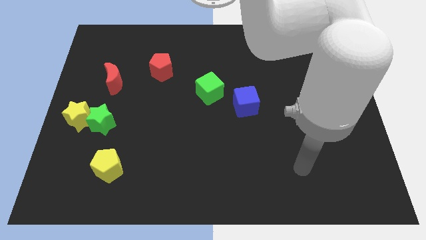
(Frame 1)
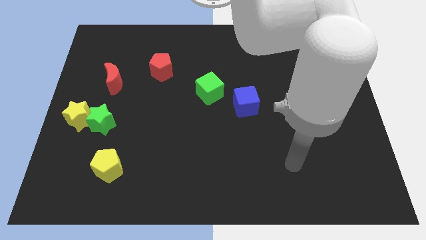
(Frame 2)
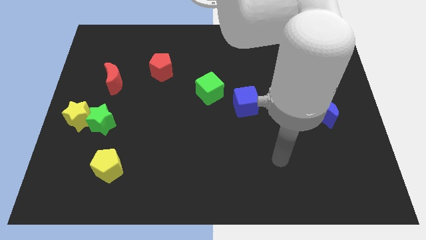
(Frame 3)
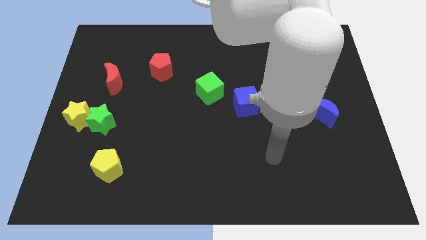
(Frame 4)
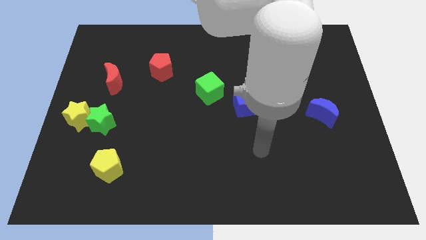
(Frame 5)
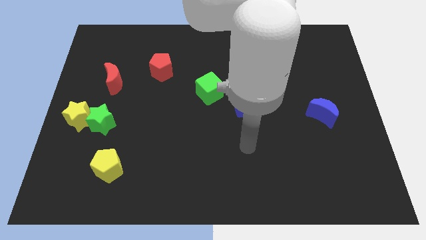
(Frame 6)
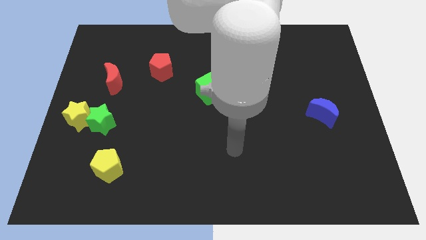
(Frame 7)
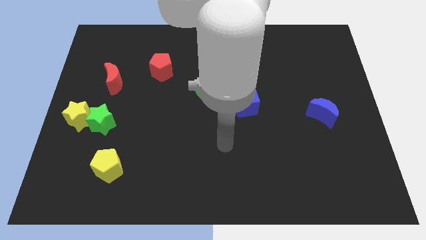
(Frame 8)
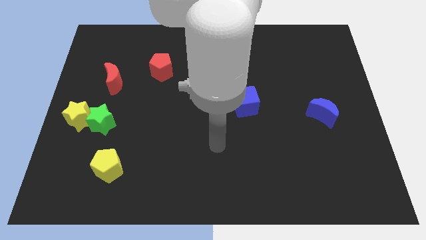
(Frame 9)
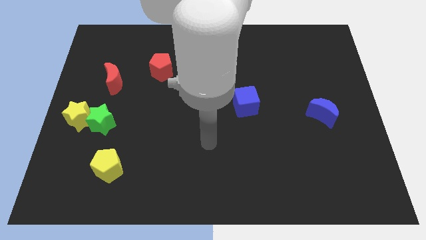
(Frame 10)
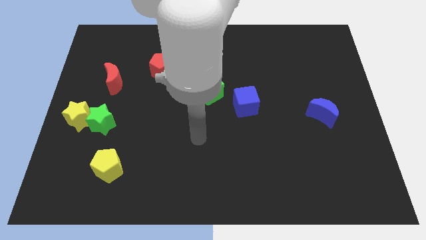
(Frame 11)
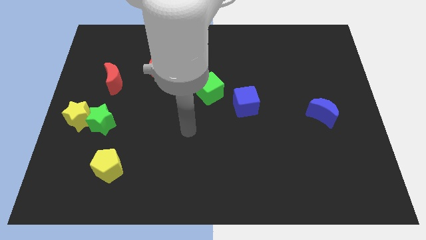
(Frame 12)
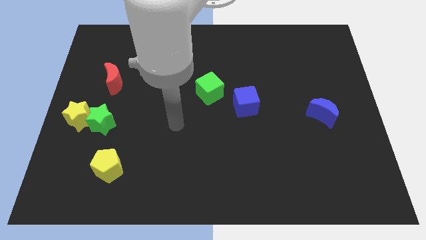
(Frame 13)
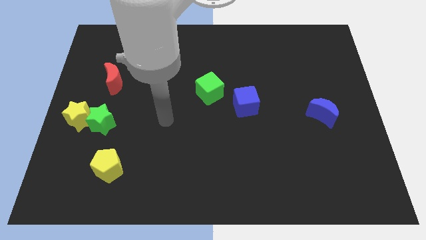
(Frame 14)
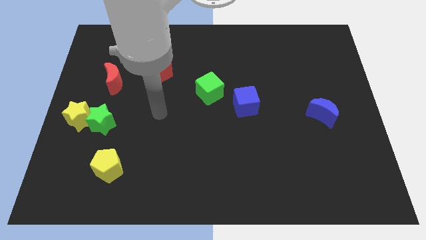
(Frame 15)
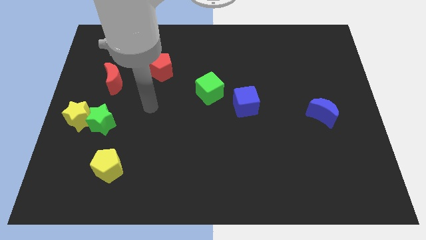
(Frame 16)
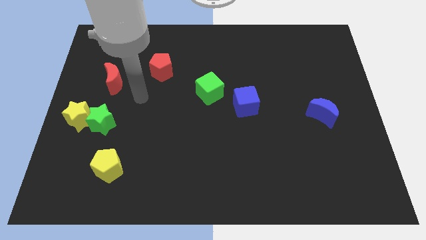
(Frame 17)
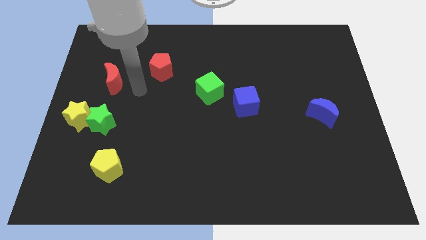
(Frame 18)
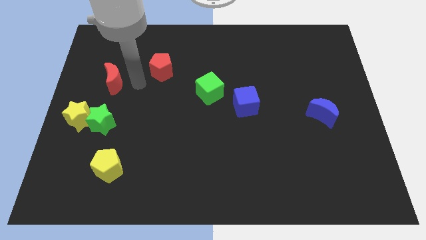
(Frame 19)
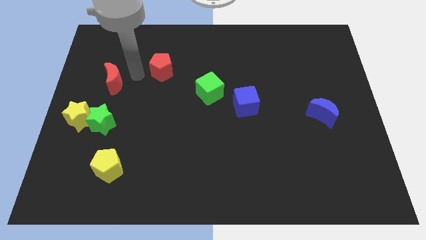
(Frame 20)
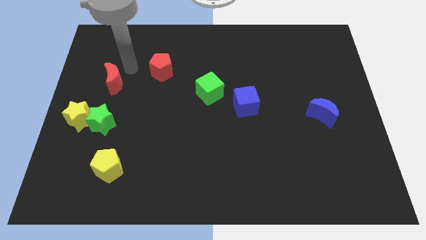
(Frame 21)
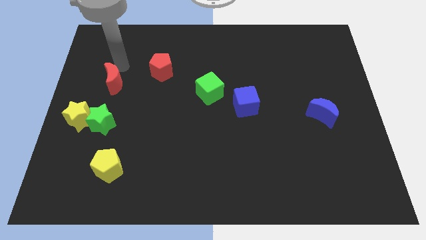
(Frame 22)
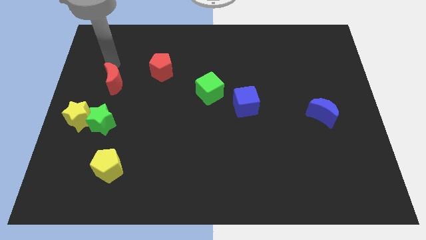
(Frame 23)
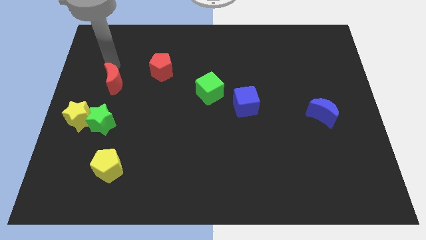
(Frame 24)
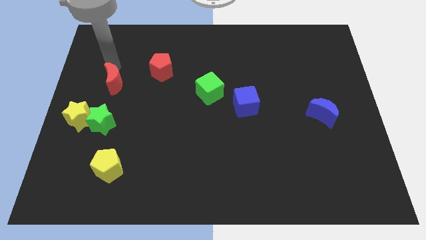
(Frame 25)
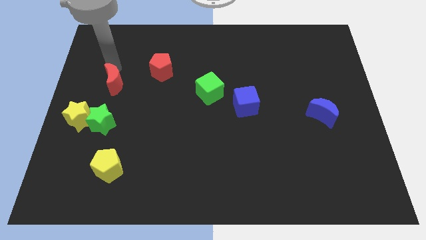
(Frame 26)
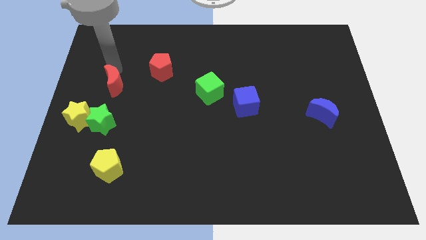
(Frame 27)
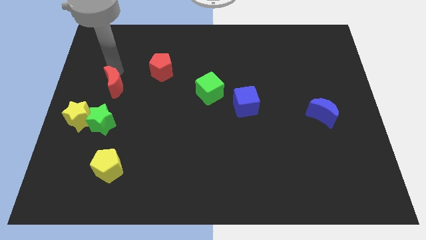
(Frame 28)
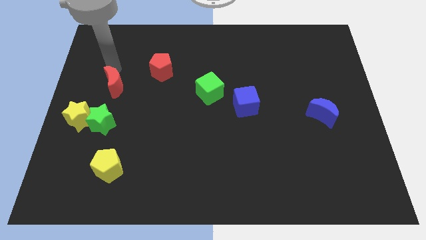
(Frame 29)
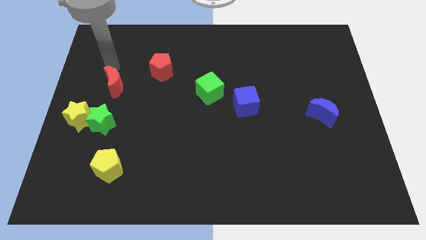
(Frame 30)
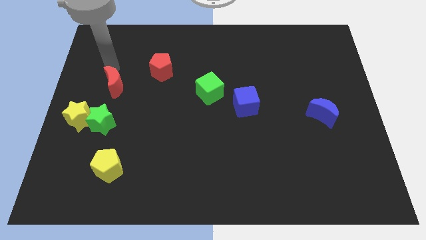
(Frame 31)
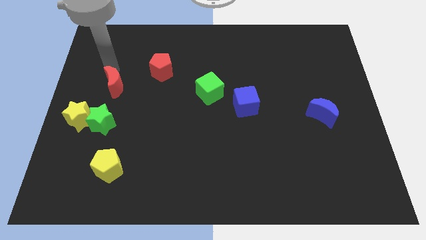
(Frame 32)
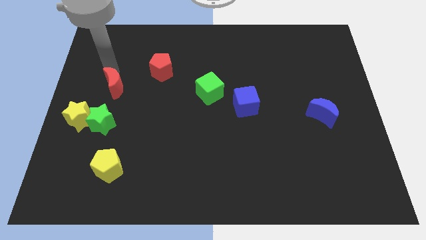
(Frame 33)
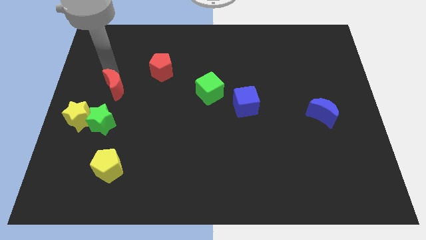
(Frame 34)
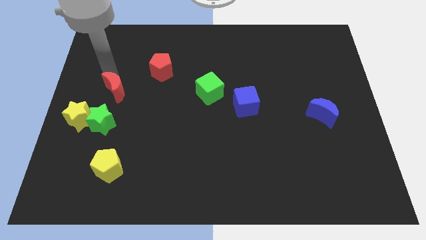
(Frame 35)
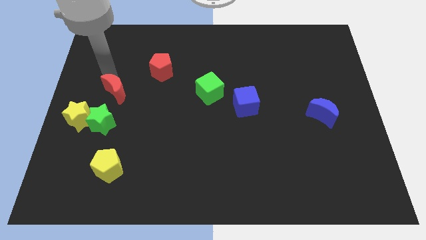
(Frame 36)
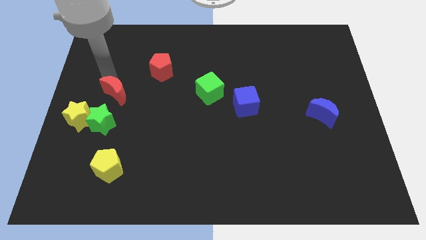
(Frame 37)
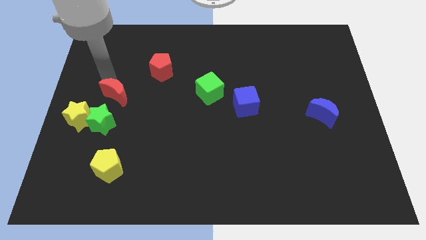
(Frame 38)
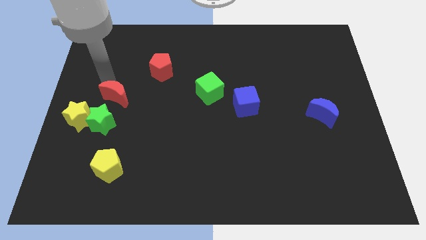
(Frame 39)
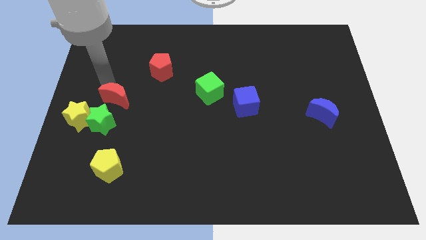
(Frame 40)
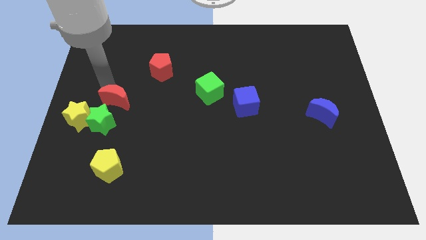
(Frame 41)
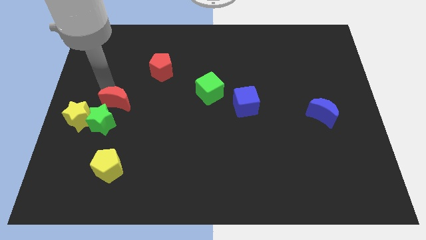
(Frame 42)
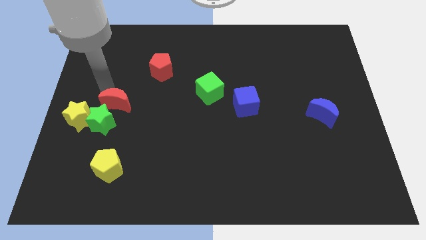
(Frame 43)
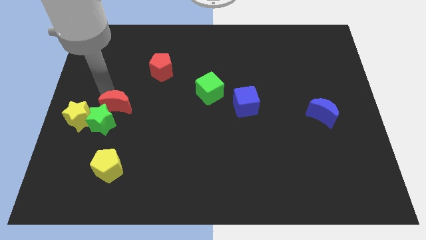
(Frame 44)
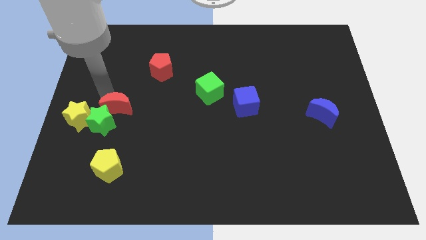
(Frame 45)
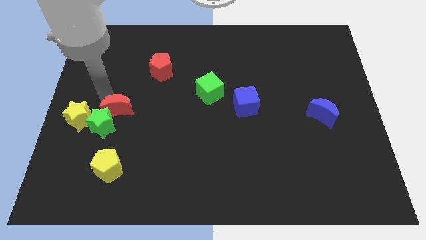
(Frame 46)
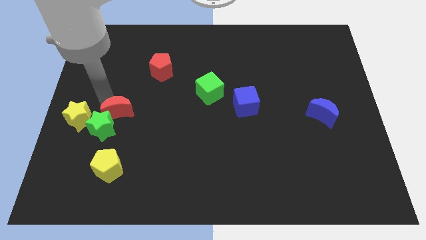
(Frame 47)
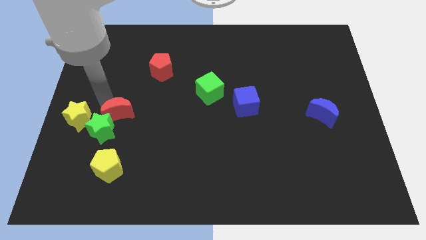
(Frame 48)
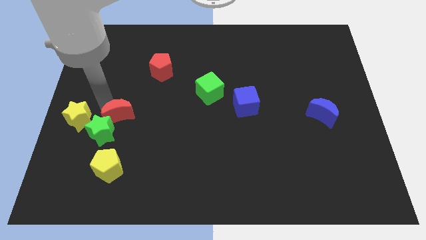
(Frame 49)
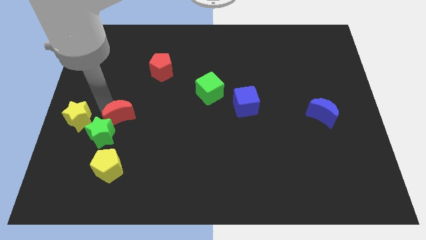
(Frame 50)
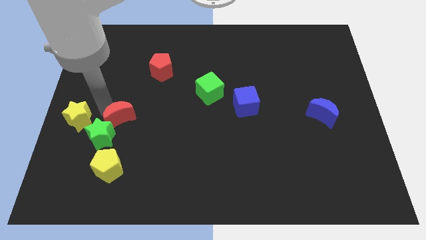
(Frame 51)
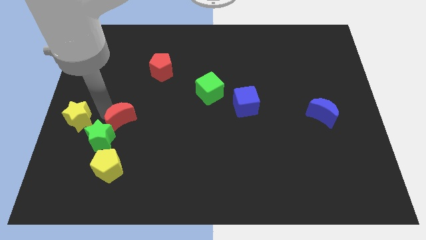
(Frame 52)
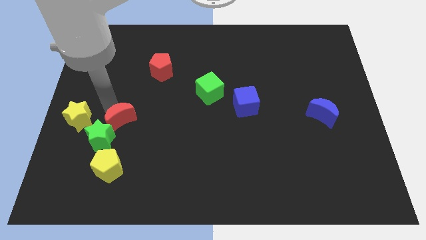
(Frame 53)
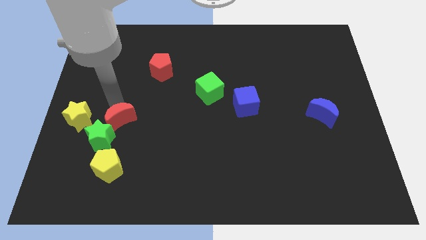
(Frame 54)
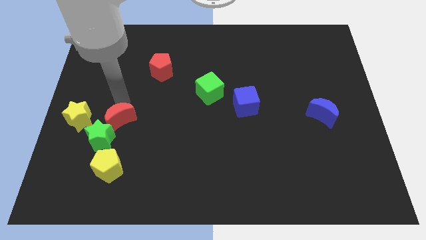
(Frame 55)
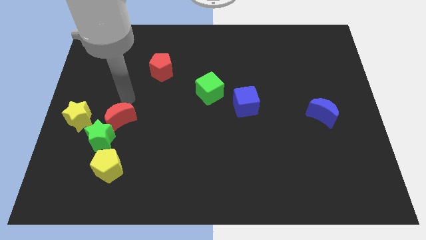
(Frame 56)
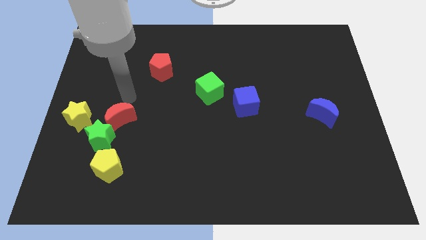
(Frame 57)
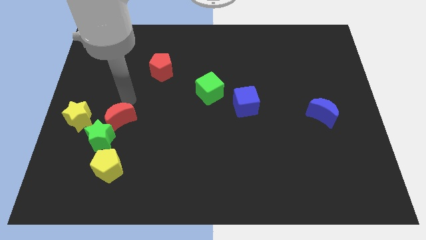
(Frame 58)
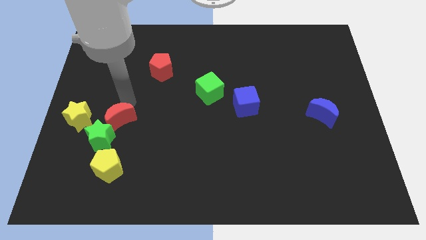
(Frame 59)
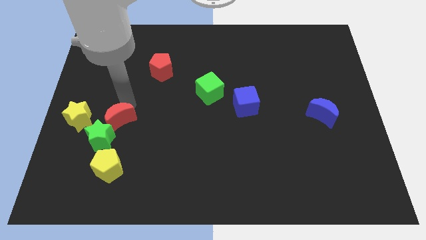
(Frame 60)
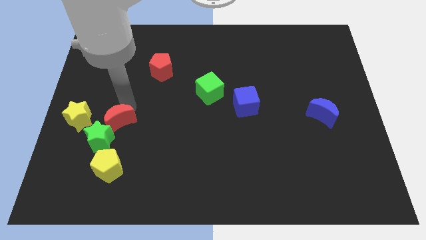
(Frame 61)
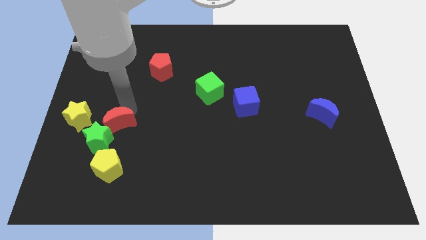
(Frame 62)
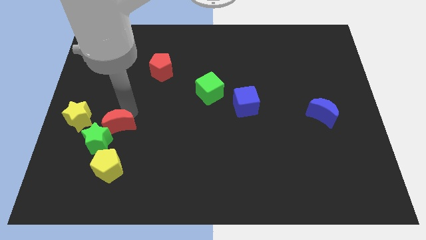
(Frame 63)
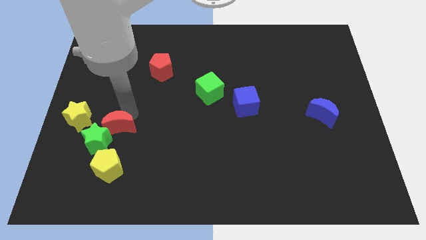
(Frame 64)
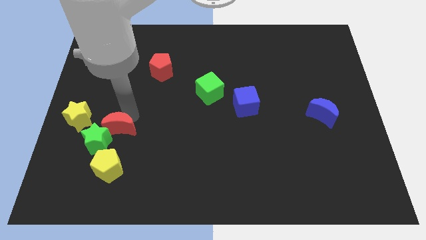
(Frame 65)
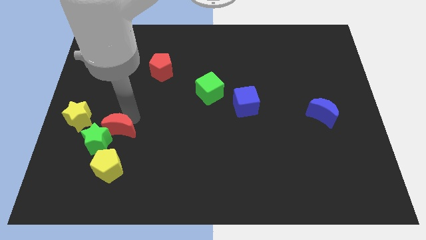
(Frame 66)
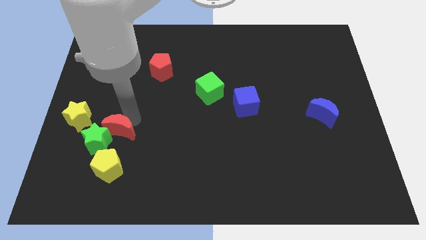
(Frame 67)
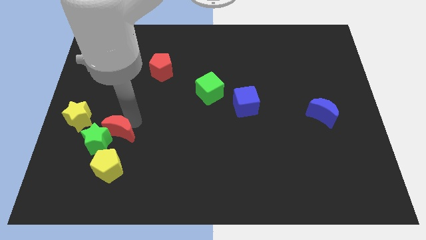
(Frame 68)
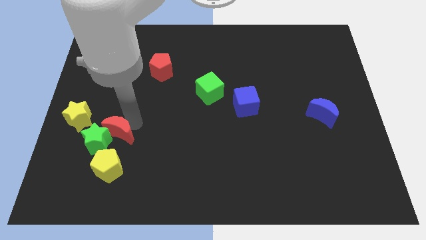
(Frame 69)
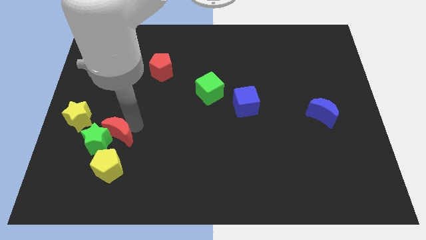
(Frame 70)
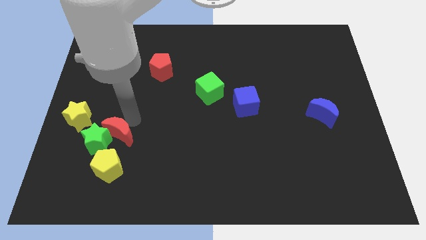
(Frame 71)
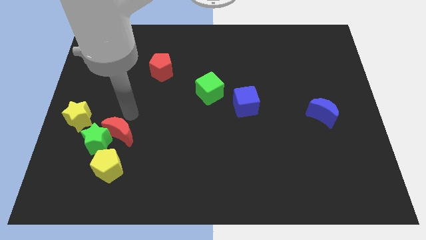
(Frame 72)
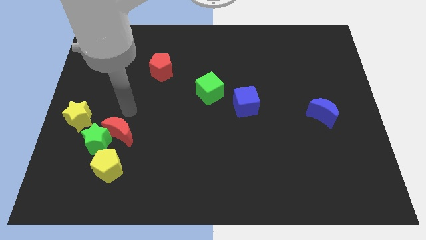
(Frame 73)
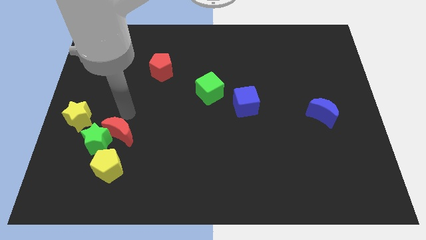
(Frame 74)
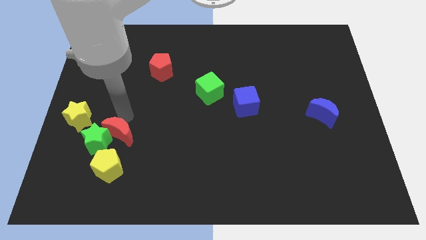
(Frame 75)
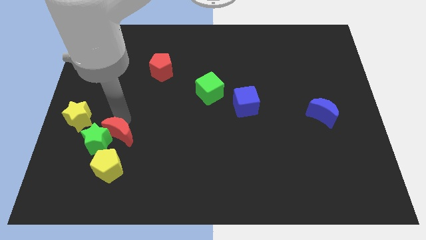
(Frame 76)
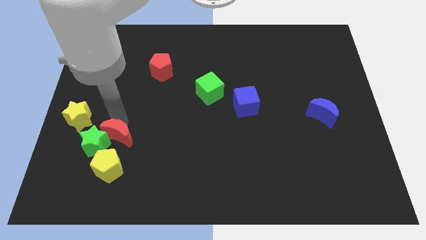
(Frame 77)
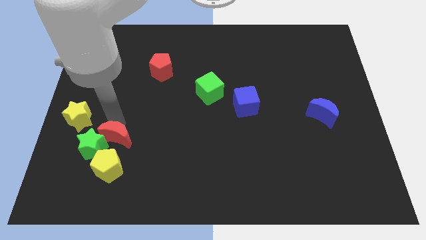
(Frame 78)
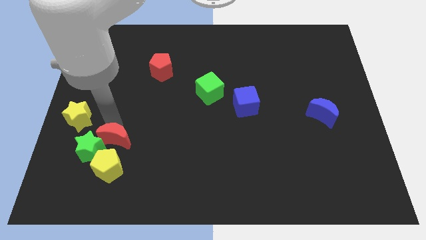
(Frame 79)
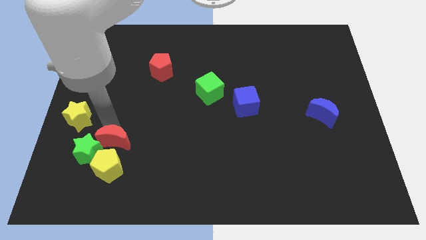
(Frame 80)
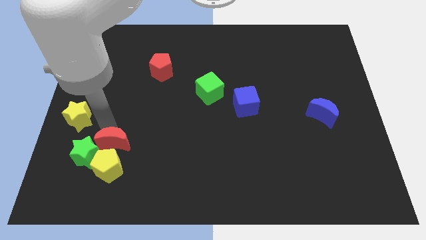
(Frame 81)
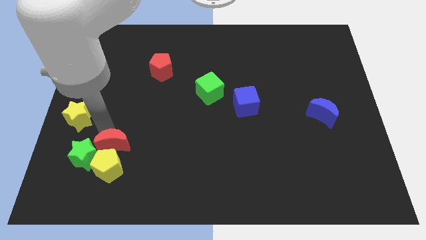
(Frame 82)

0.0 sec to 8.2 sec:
push the red moon towards the yellow pentagon
